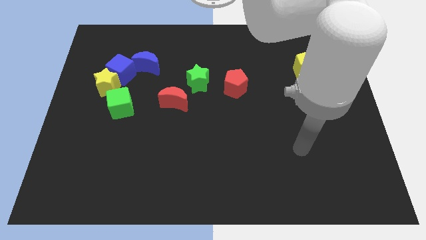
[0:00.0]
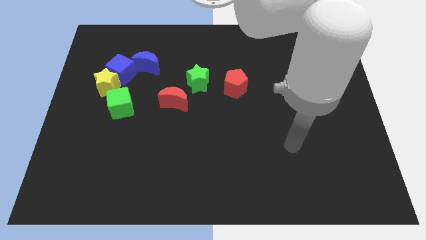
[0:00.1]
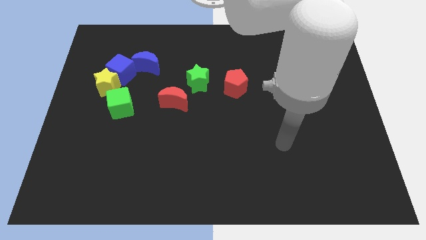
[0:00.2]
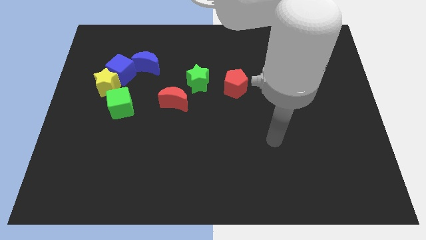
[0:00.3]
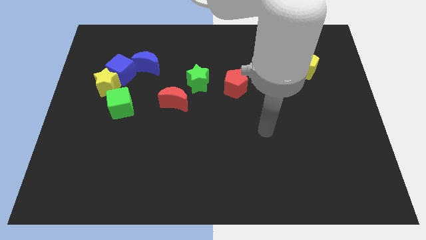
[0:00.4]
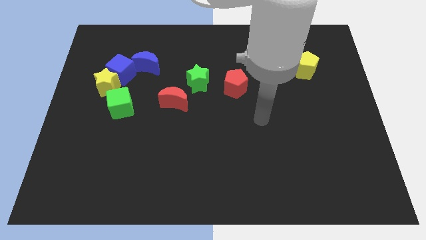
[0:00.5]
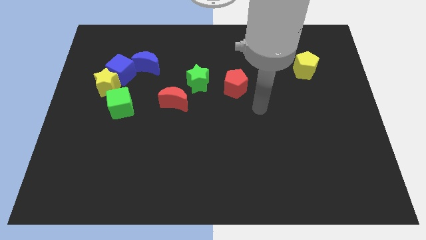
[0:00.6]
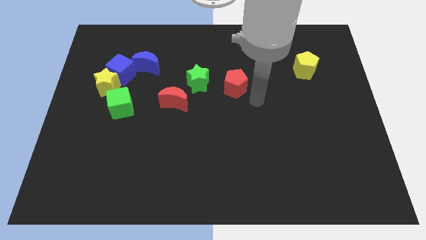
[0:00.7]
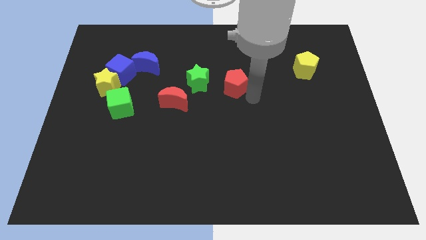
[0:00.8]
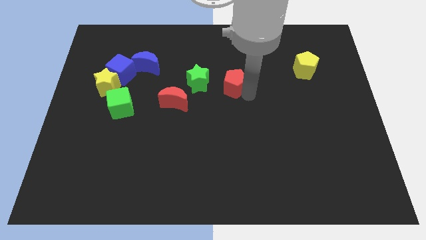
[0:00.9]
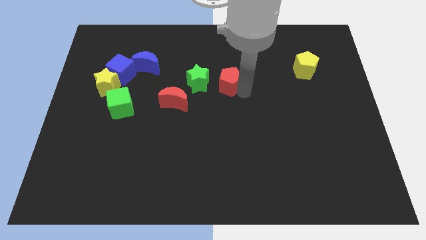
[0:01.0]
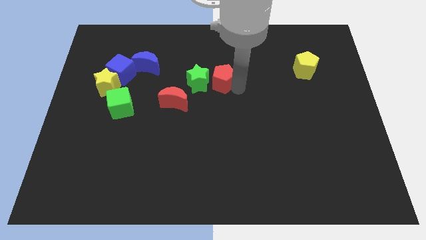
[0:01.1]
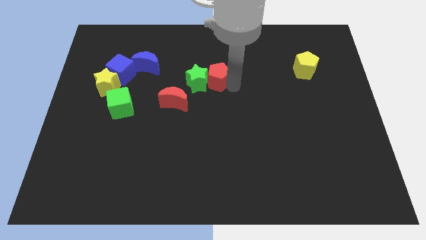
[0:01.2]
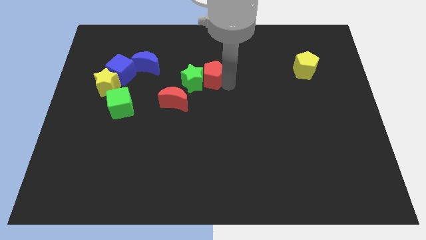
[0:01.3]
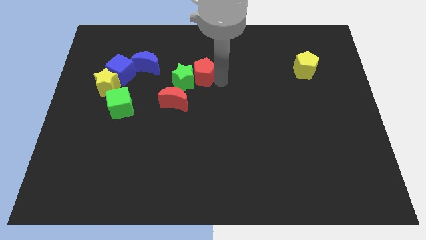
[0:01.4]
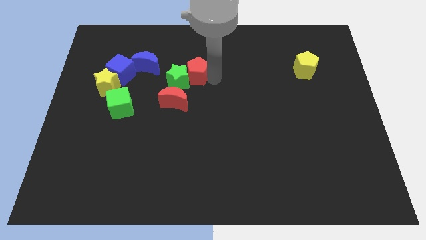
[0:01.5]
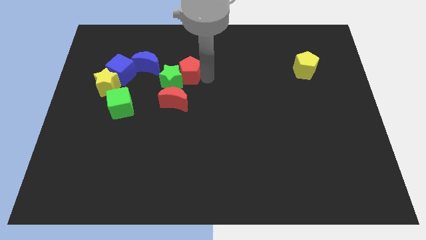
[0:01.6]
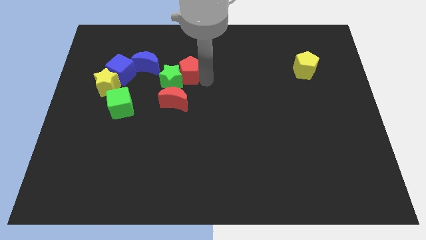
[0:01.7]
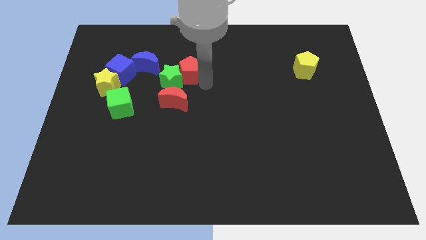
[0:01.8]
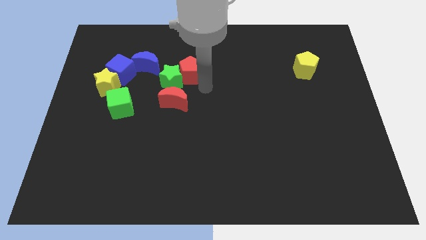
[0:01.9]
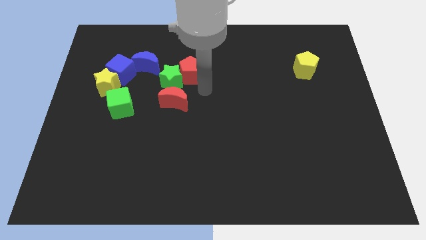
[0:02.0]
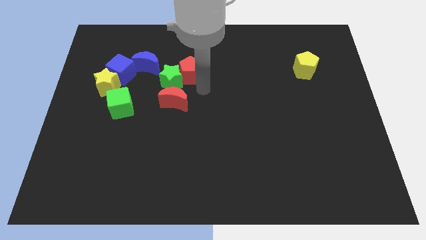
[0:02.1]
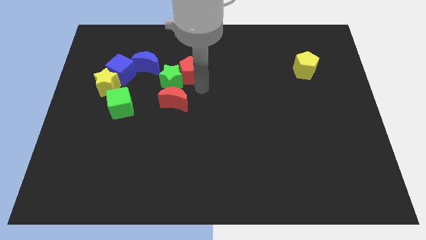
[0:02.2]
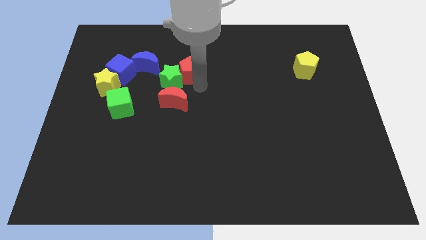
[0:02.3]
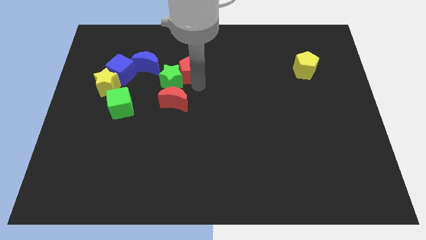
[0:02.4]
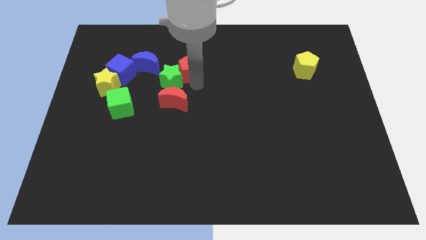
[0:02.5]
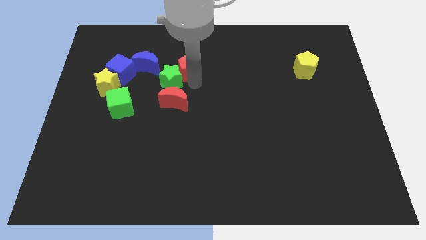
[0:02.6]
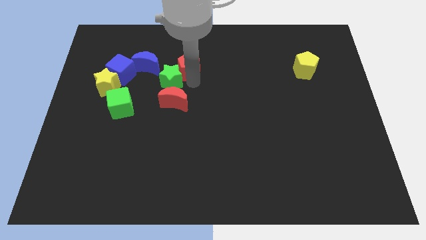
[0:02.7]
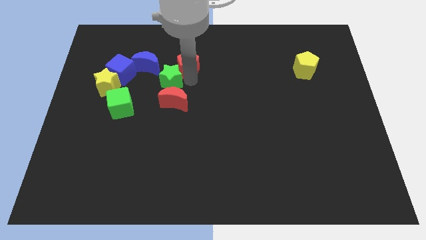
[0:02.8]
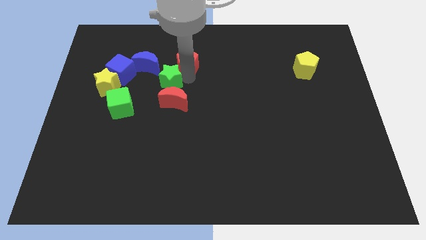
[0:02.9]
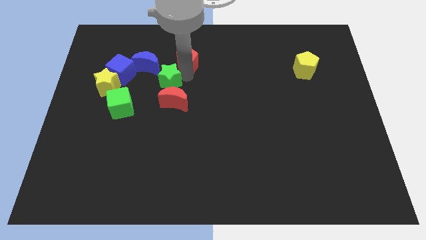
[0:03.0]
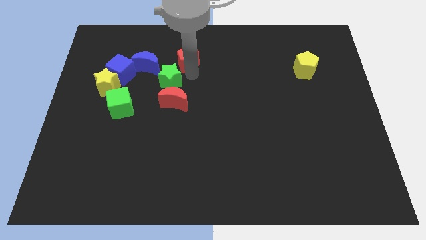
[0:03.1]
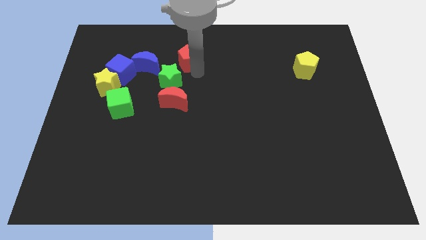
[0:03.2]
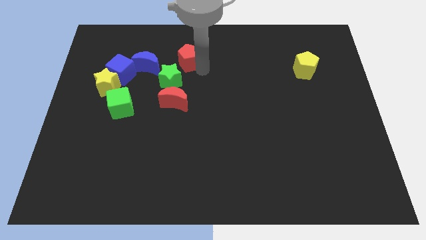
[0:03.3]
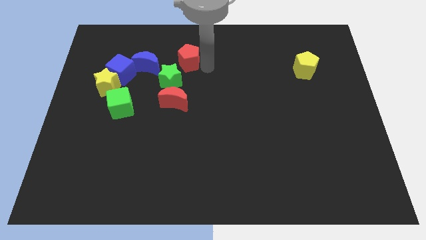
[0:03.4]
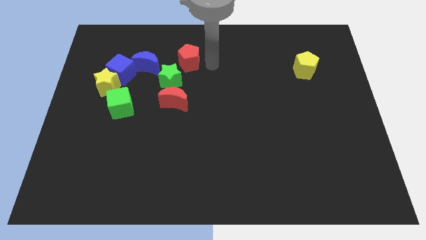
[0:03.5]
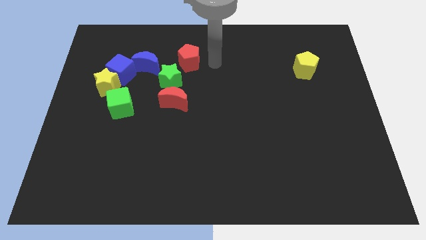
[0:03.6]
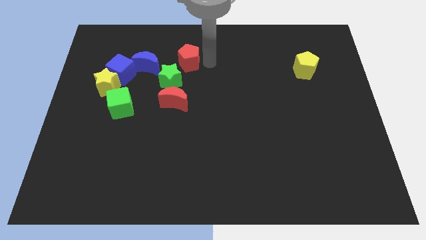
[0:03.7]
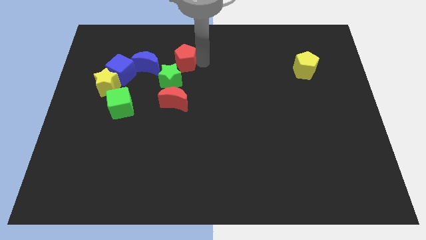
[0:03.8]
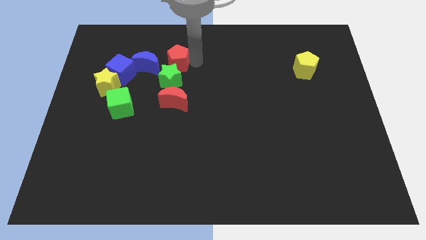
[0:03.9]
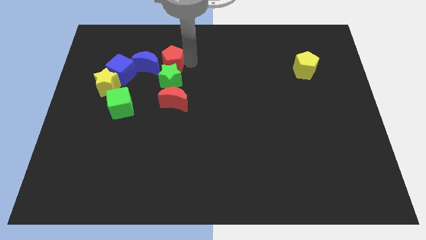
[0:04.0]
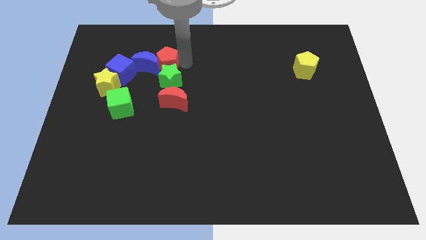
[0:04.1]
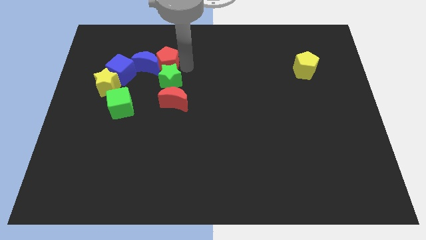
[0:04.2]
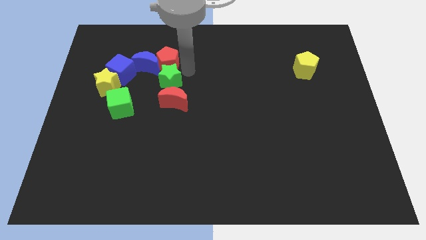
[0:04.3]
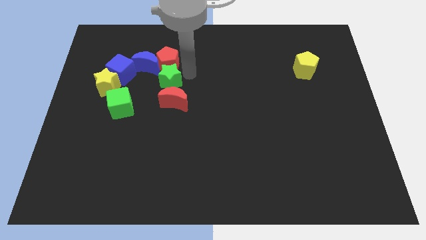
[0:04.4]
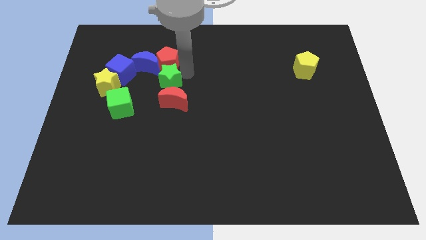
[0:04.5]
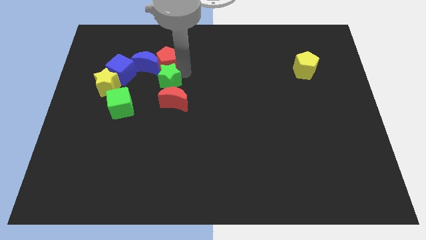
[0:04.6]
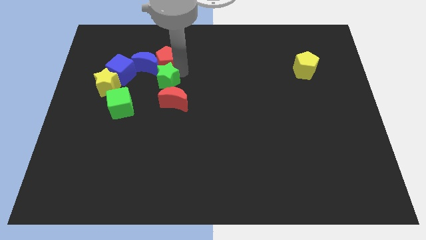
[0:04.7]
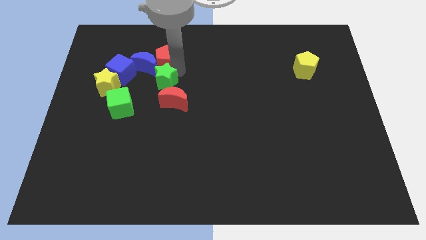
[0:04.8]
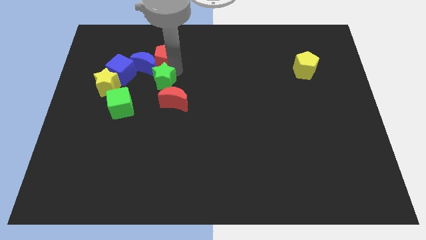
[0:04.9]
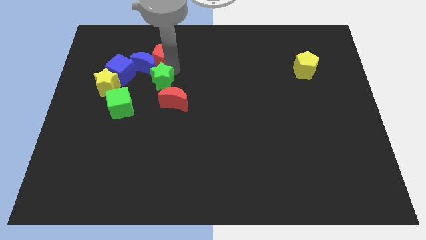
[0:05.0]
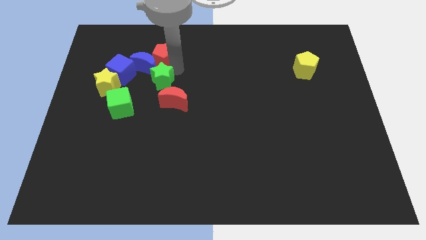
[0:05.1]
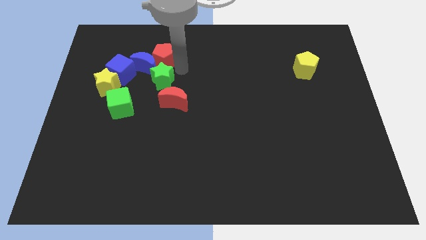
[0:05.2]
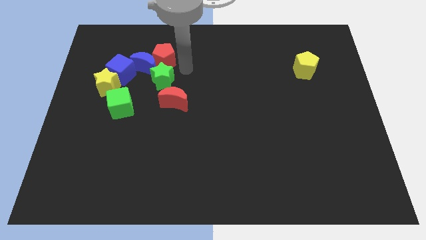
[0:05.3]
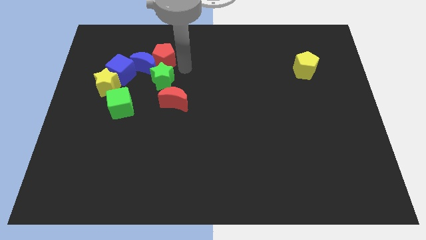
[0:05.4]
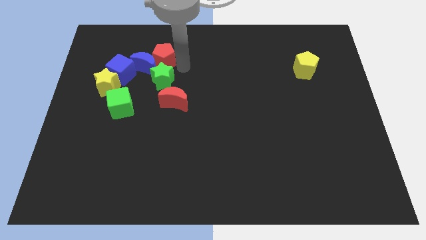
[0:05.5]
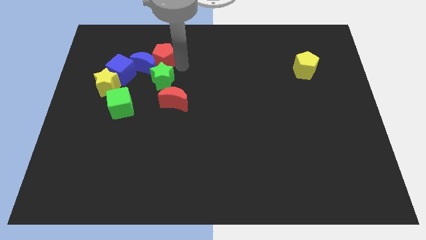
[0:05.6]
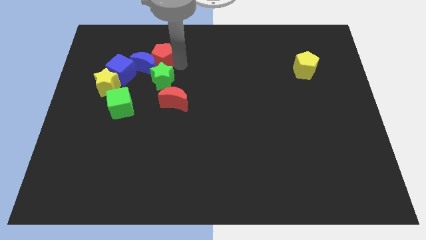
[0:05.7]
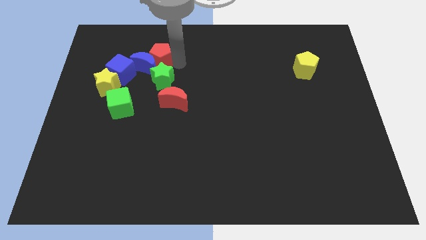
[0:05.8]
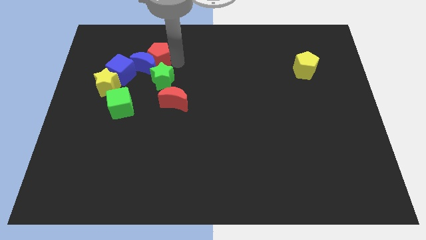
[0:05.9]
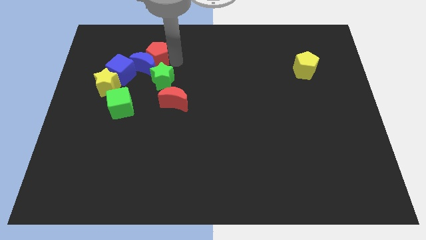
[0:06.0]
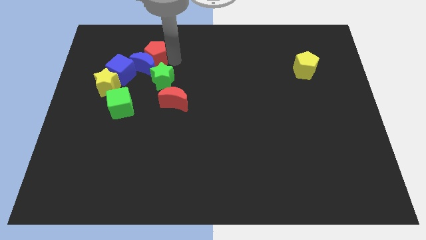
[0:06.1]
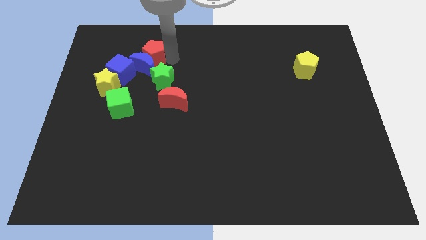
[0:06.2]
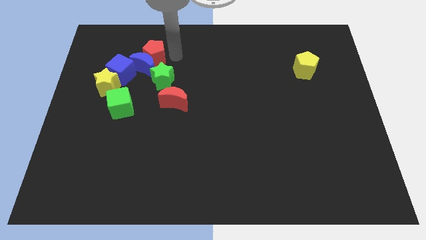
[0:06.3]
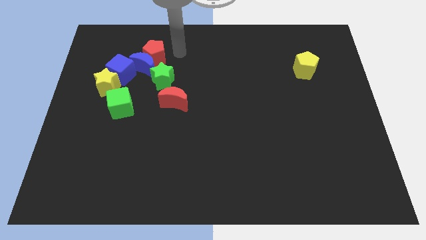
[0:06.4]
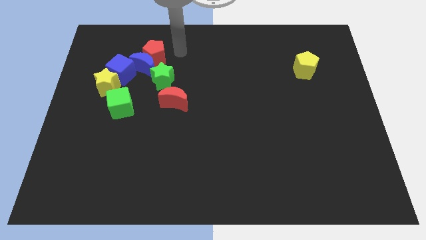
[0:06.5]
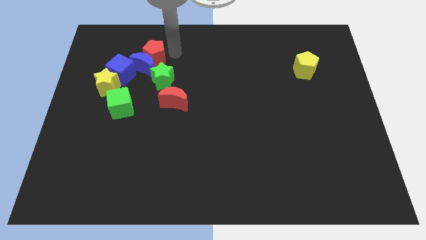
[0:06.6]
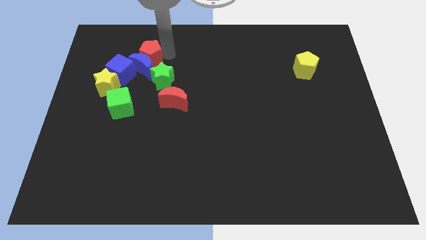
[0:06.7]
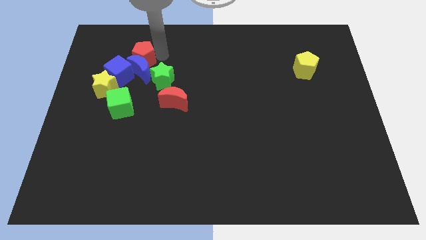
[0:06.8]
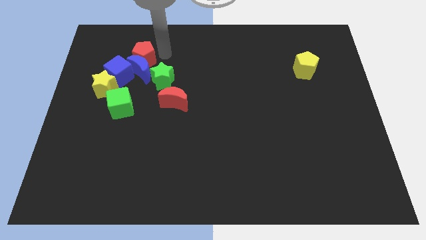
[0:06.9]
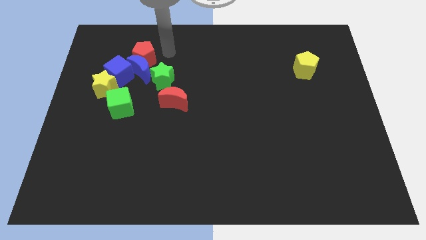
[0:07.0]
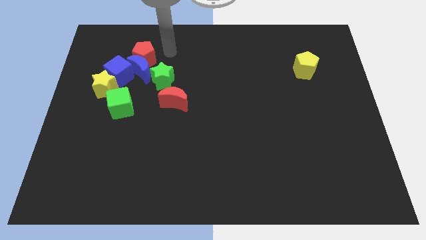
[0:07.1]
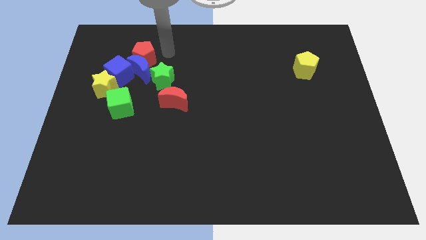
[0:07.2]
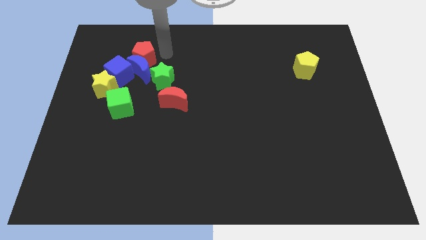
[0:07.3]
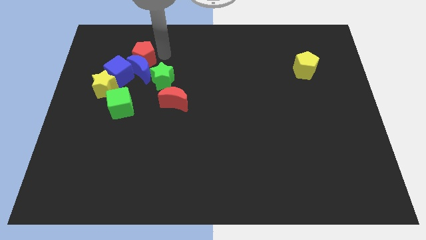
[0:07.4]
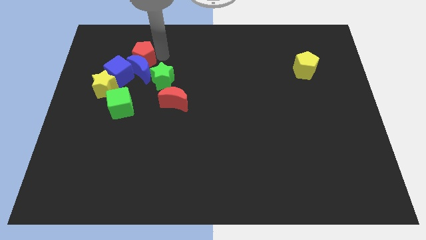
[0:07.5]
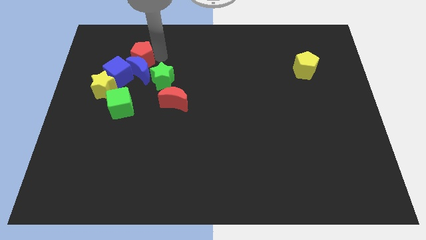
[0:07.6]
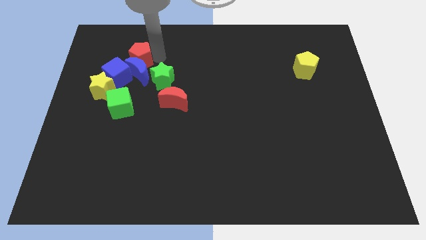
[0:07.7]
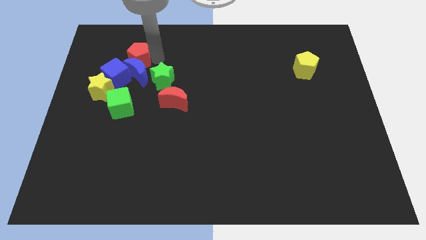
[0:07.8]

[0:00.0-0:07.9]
put the red pentagon above the green cube

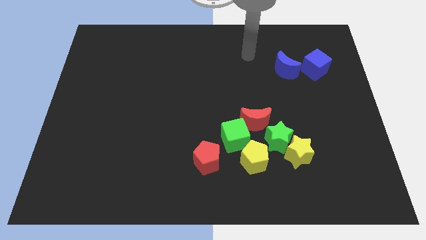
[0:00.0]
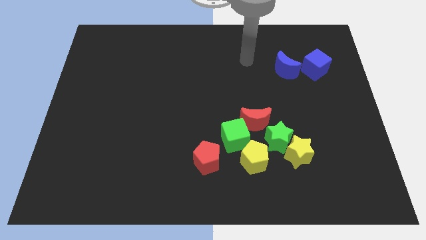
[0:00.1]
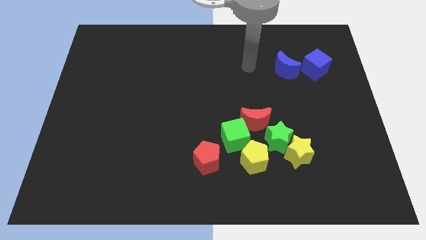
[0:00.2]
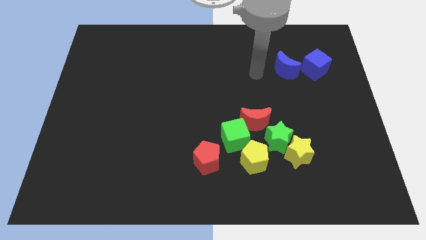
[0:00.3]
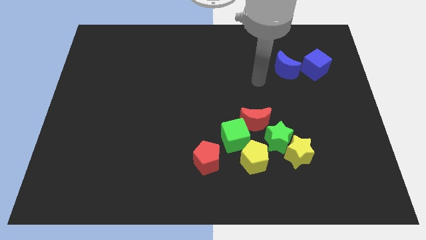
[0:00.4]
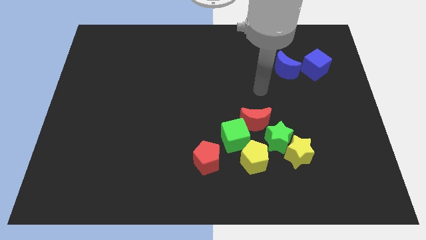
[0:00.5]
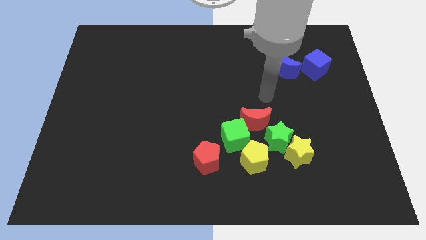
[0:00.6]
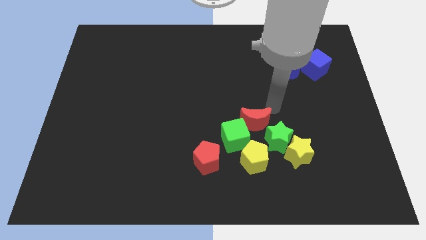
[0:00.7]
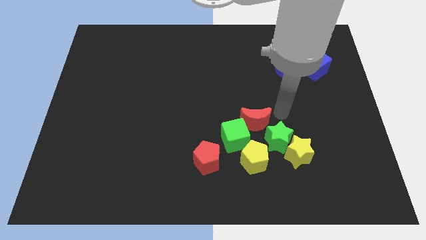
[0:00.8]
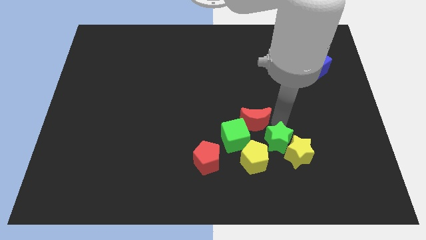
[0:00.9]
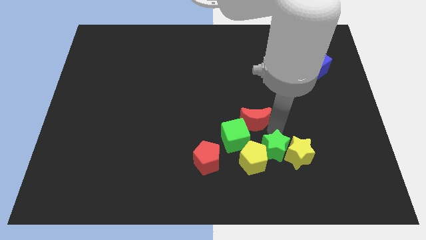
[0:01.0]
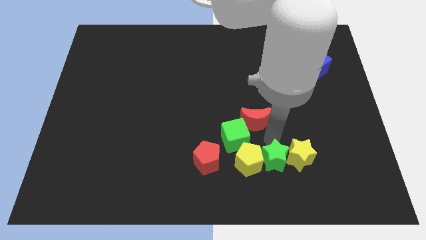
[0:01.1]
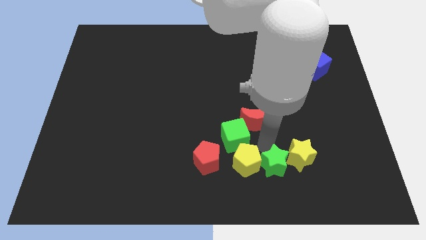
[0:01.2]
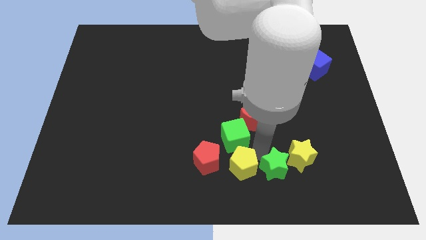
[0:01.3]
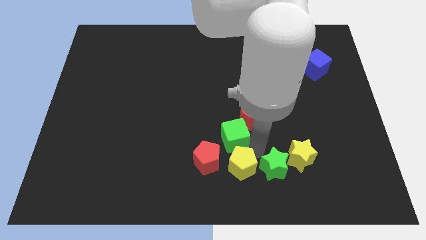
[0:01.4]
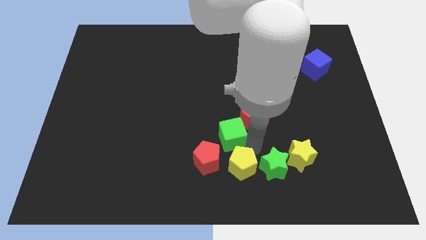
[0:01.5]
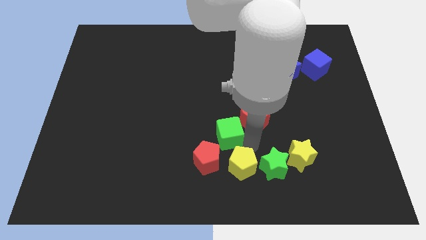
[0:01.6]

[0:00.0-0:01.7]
put the green cube to the top of the red pentagon
